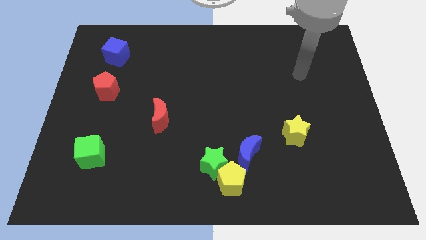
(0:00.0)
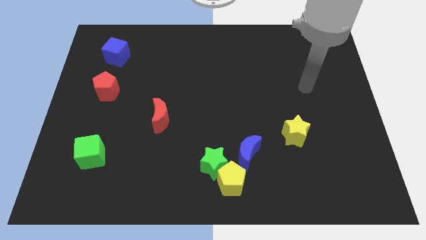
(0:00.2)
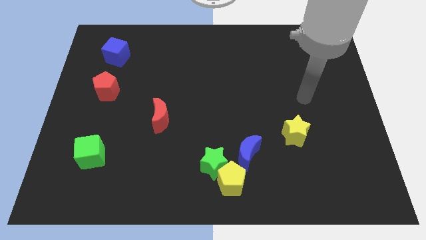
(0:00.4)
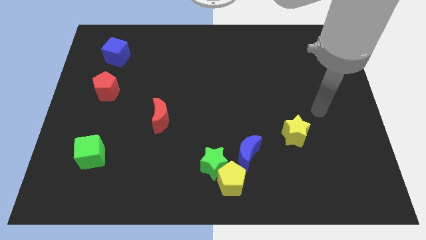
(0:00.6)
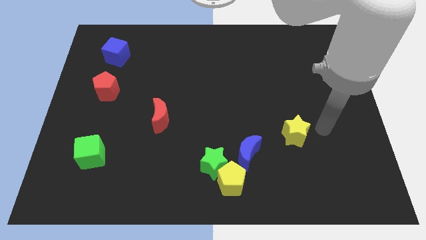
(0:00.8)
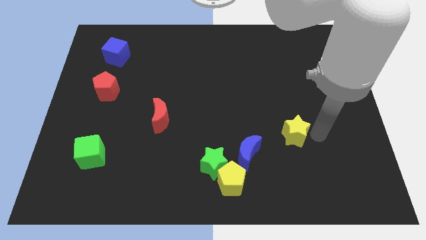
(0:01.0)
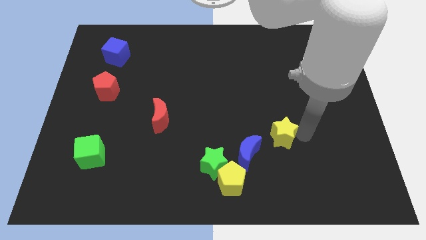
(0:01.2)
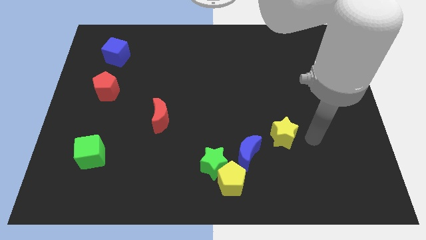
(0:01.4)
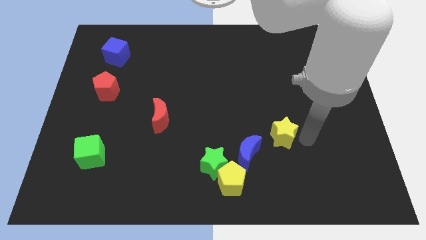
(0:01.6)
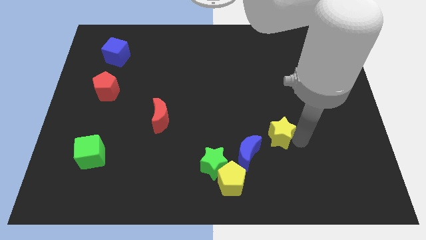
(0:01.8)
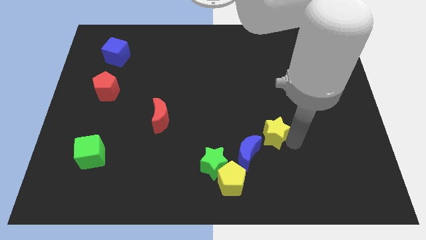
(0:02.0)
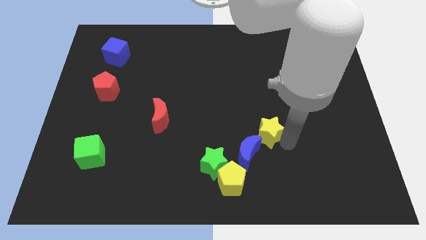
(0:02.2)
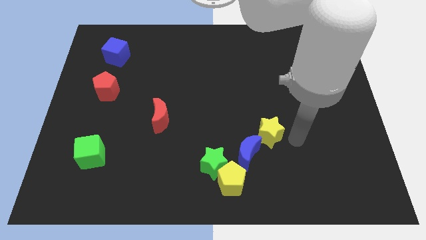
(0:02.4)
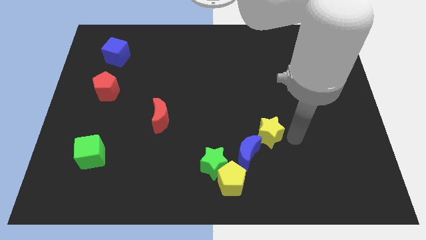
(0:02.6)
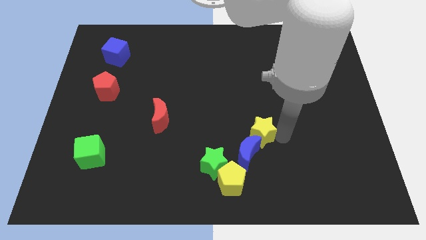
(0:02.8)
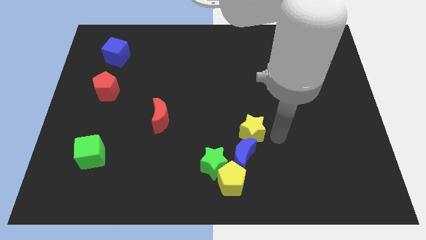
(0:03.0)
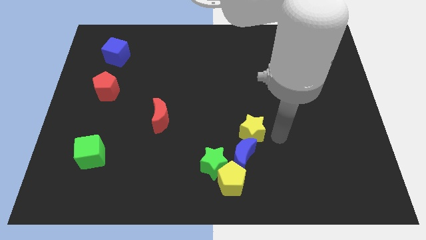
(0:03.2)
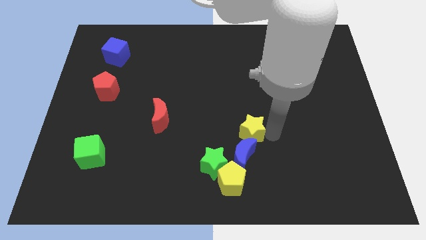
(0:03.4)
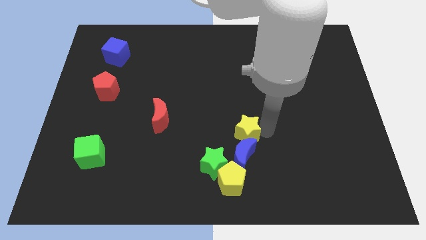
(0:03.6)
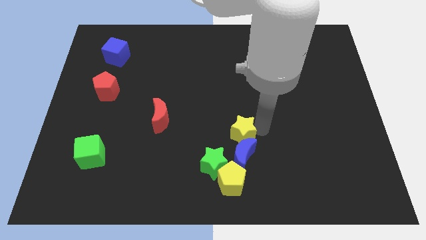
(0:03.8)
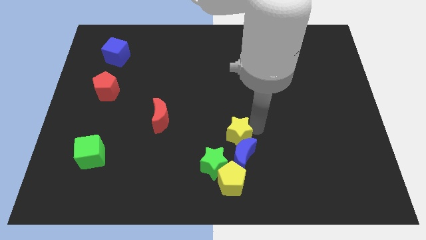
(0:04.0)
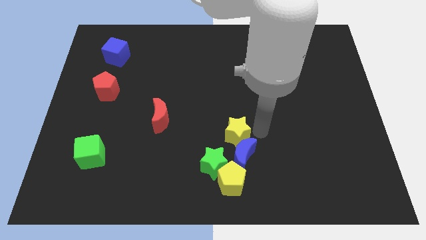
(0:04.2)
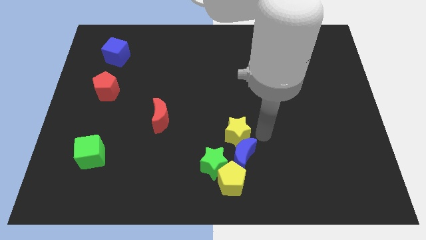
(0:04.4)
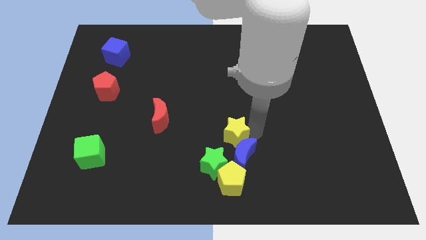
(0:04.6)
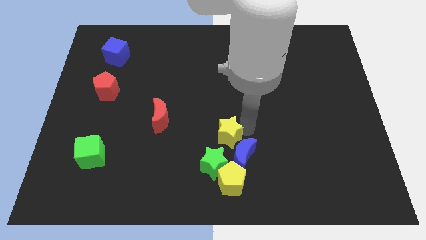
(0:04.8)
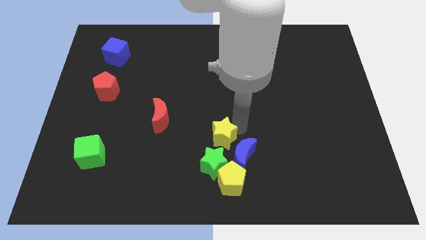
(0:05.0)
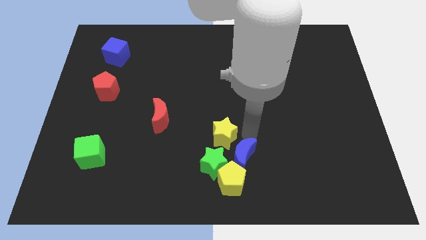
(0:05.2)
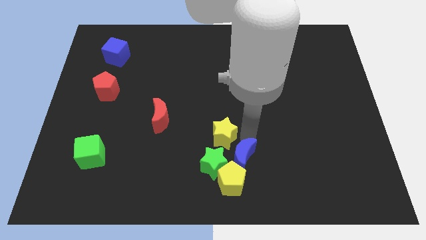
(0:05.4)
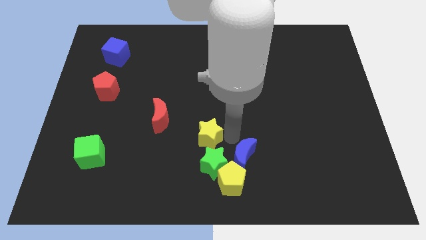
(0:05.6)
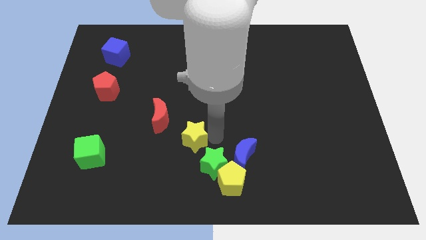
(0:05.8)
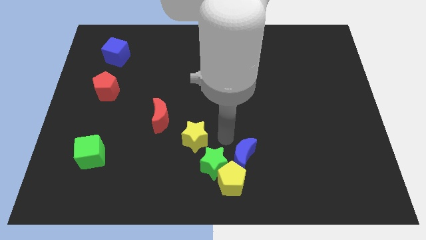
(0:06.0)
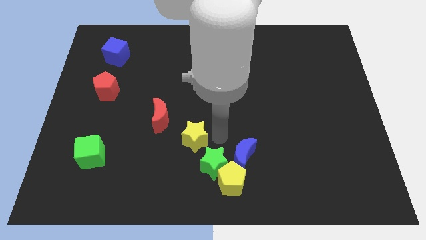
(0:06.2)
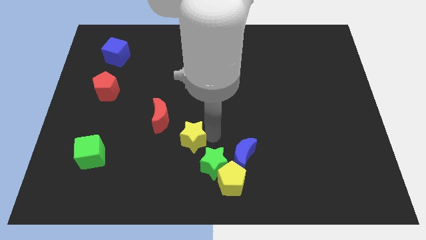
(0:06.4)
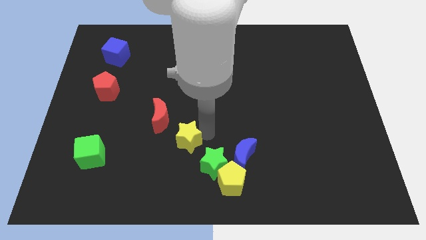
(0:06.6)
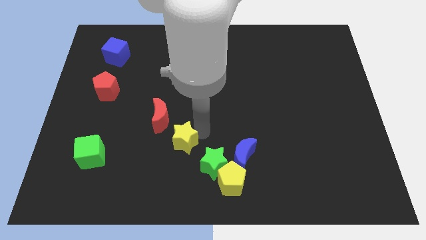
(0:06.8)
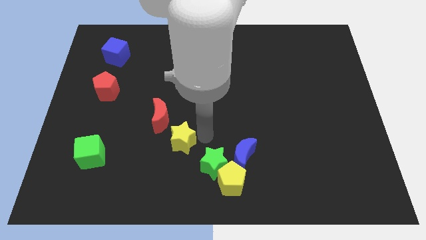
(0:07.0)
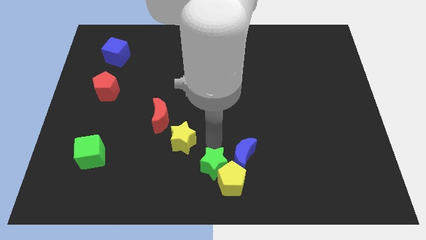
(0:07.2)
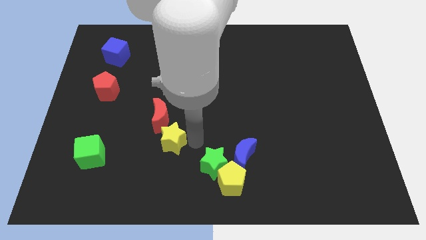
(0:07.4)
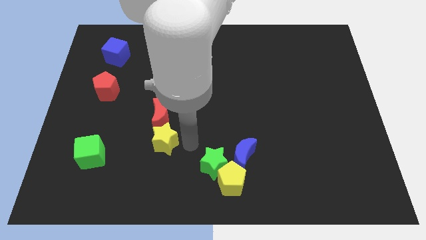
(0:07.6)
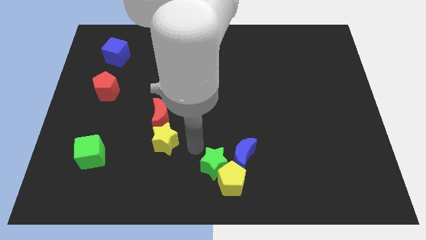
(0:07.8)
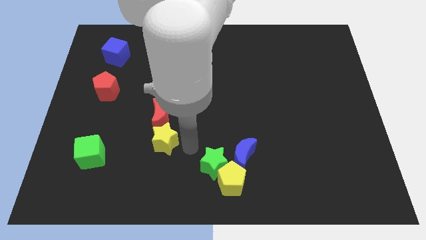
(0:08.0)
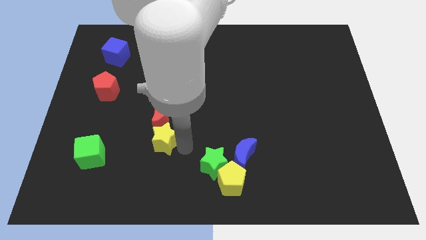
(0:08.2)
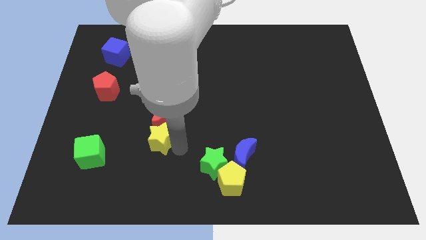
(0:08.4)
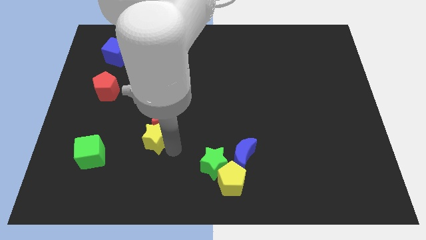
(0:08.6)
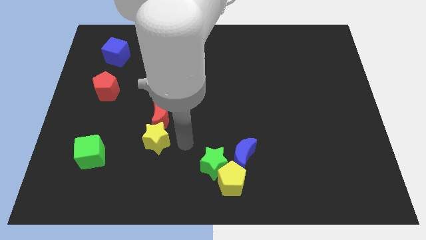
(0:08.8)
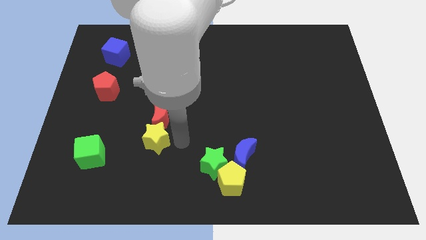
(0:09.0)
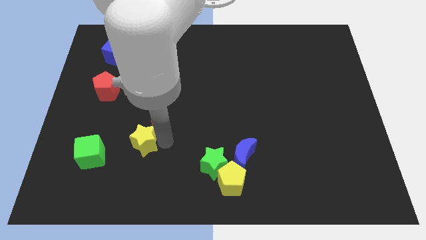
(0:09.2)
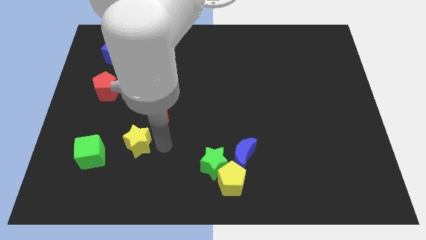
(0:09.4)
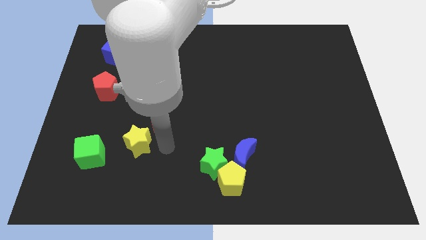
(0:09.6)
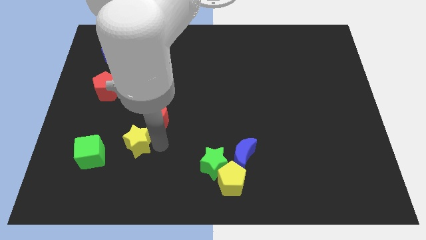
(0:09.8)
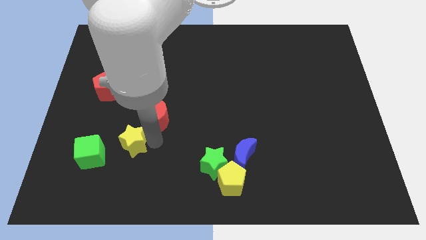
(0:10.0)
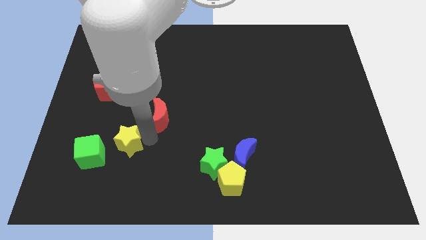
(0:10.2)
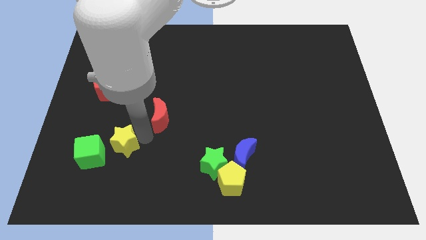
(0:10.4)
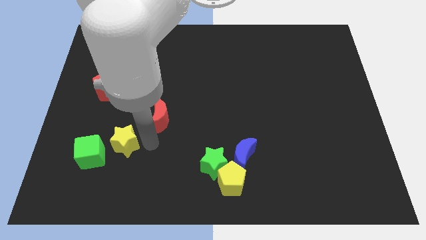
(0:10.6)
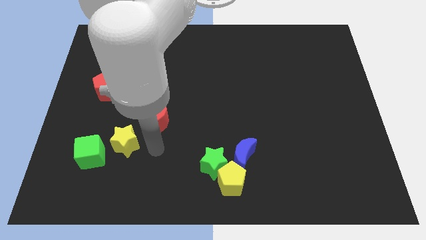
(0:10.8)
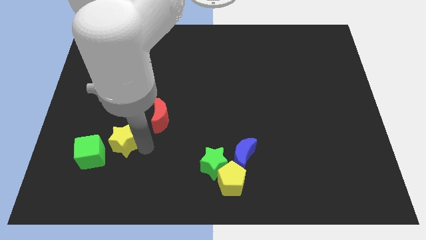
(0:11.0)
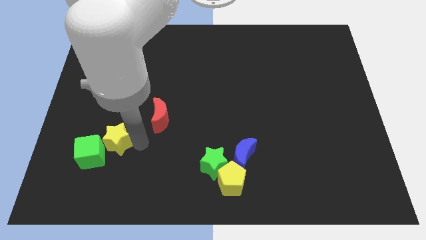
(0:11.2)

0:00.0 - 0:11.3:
move the yellow star to the green cube

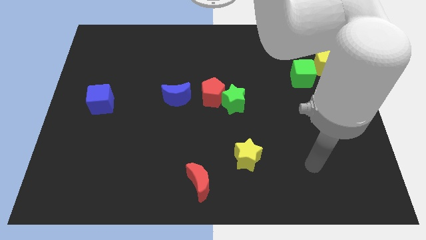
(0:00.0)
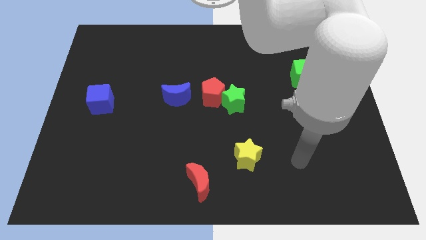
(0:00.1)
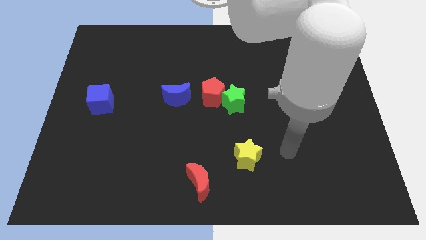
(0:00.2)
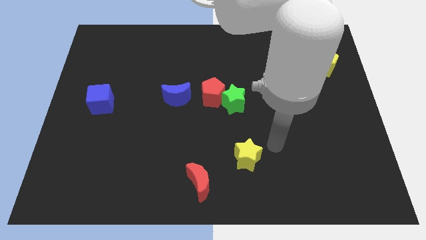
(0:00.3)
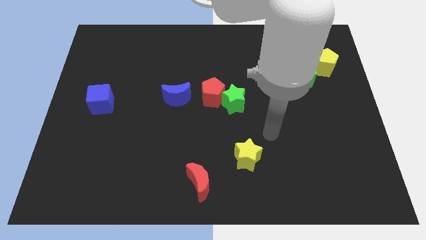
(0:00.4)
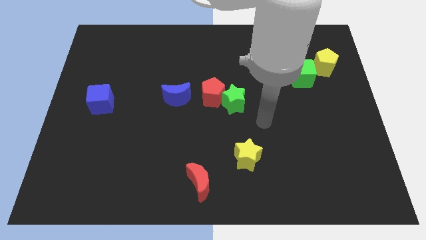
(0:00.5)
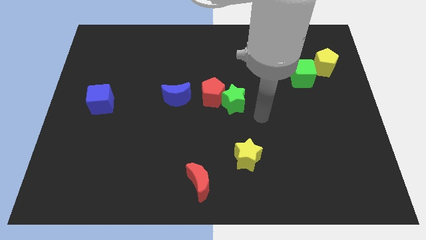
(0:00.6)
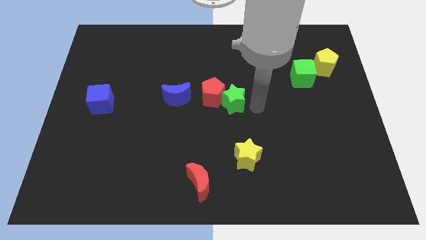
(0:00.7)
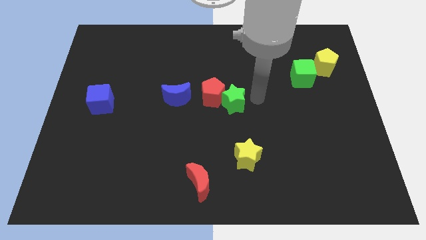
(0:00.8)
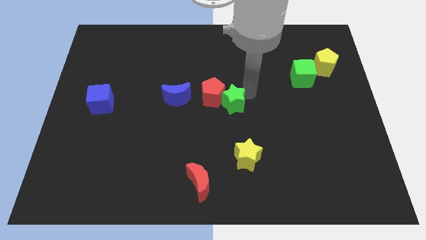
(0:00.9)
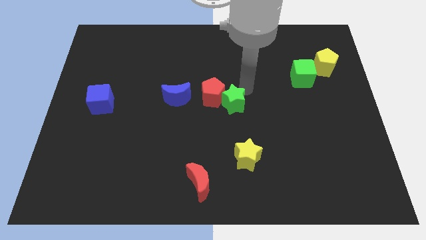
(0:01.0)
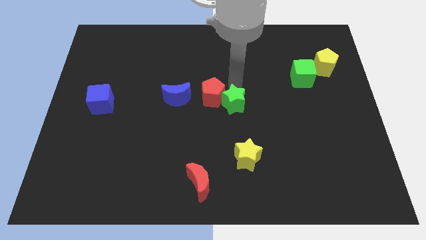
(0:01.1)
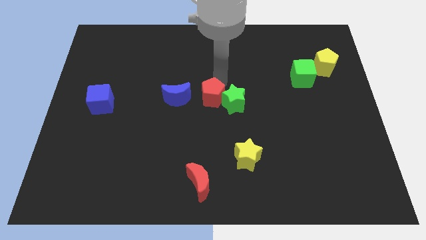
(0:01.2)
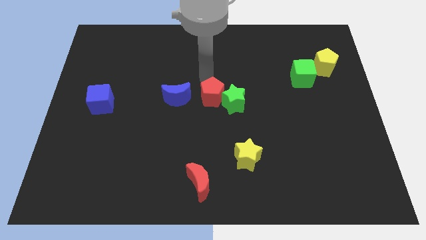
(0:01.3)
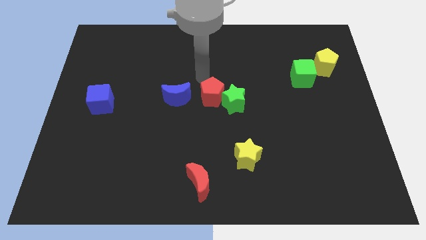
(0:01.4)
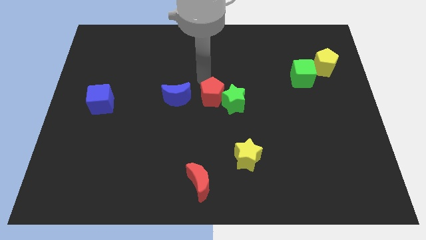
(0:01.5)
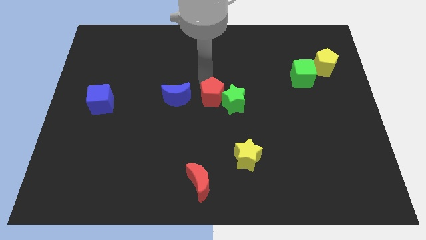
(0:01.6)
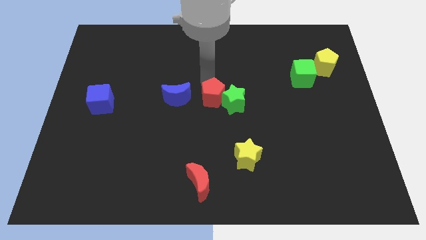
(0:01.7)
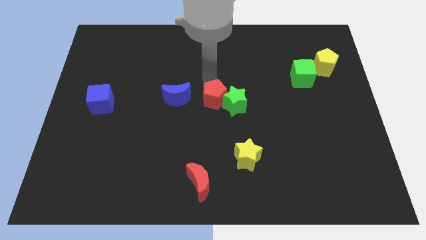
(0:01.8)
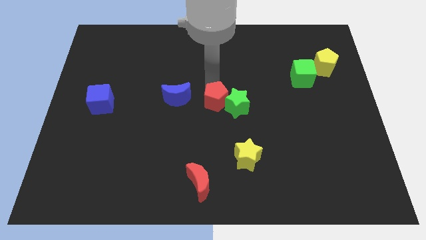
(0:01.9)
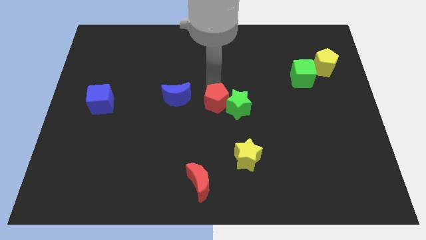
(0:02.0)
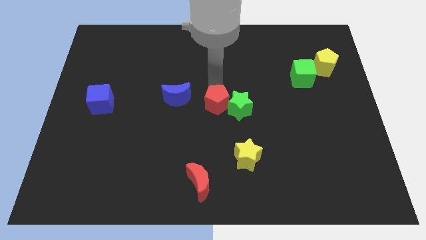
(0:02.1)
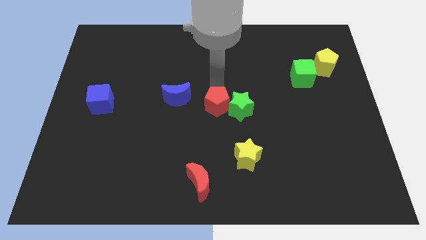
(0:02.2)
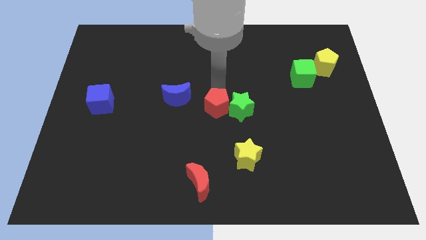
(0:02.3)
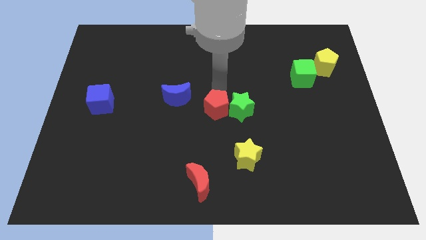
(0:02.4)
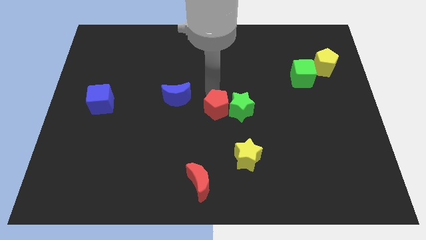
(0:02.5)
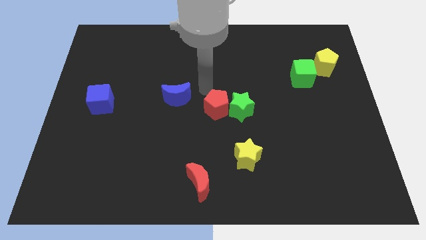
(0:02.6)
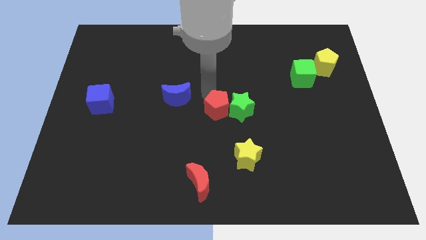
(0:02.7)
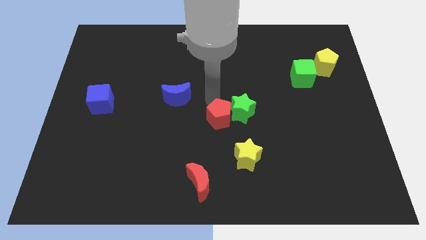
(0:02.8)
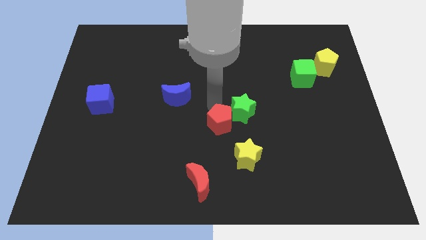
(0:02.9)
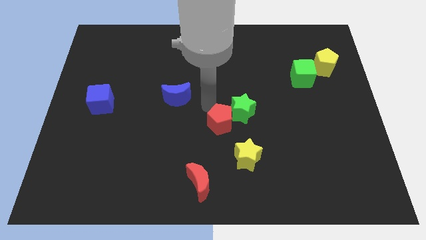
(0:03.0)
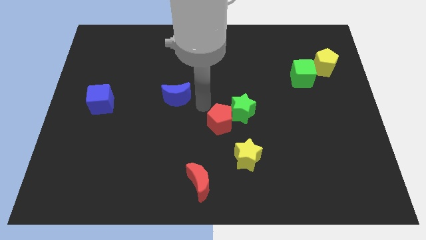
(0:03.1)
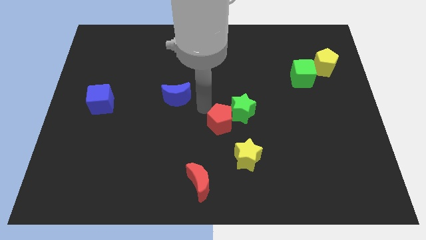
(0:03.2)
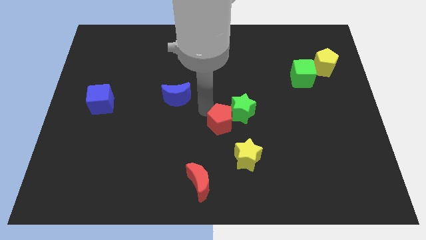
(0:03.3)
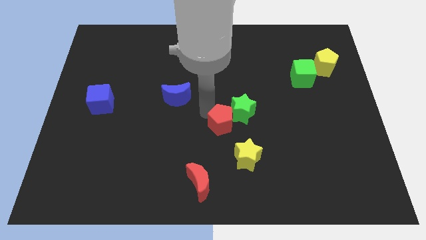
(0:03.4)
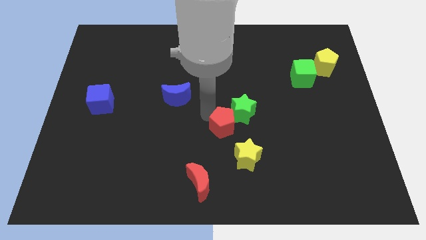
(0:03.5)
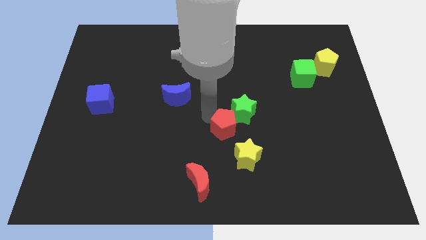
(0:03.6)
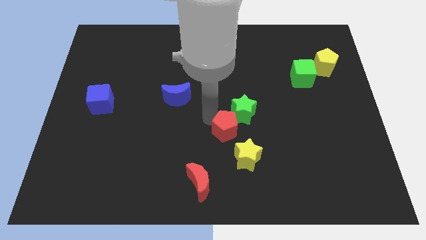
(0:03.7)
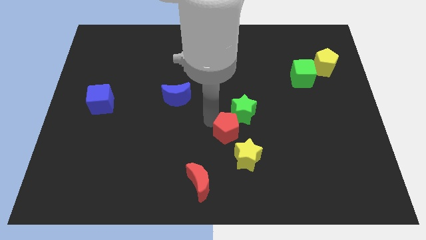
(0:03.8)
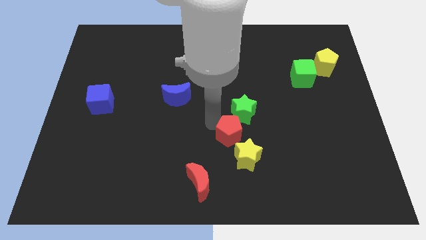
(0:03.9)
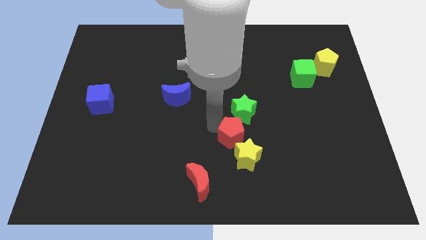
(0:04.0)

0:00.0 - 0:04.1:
move the red pentagon next to the yellow star
